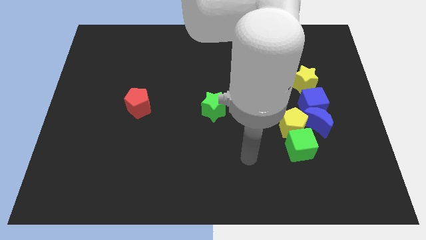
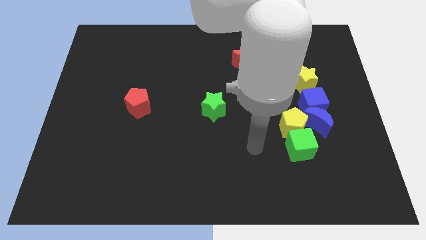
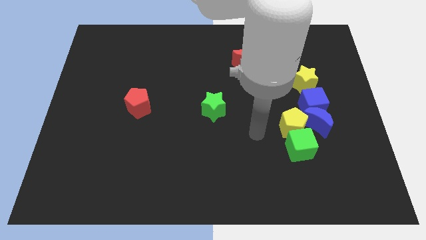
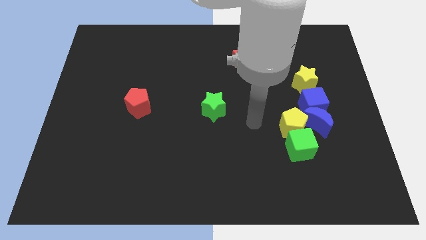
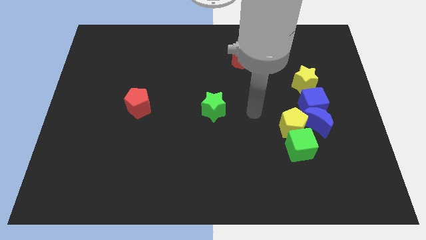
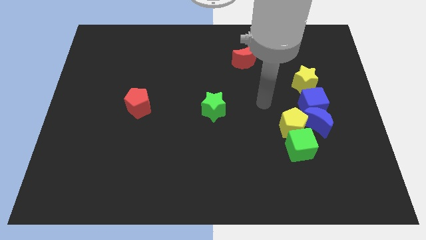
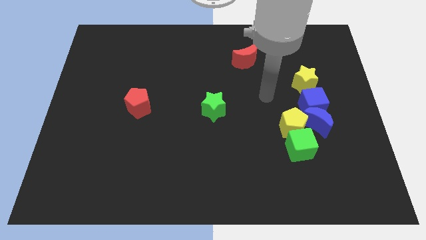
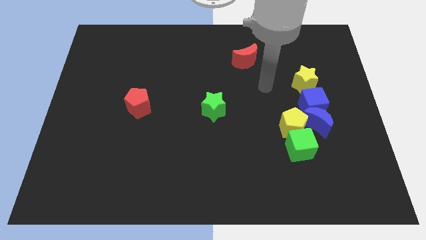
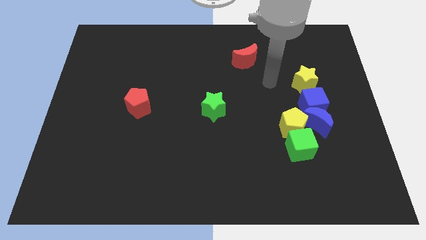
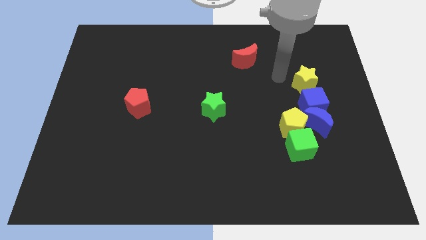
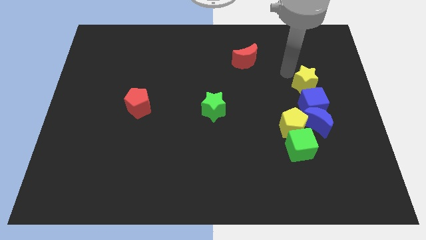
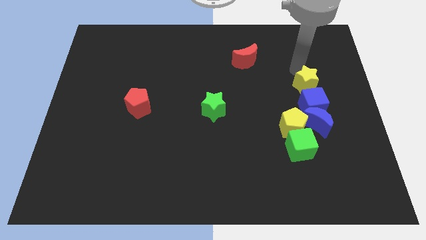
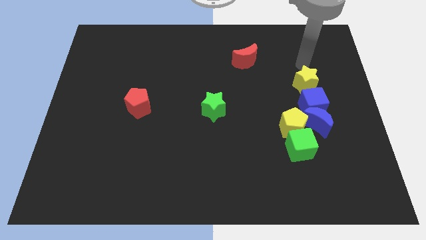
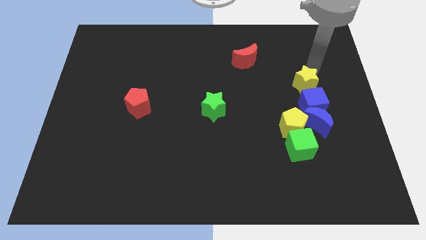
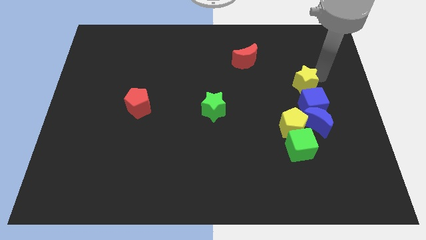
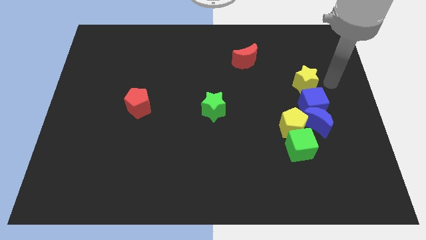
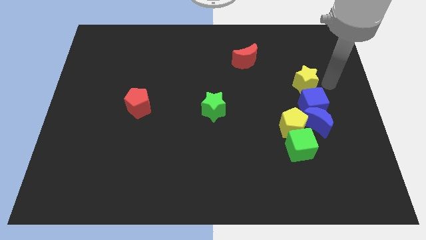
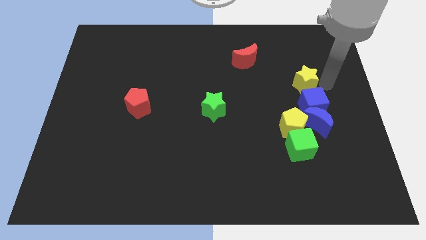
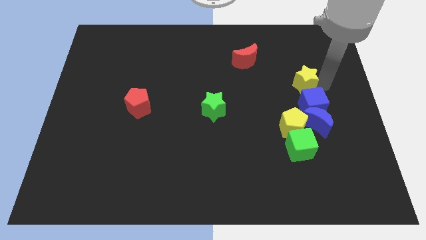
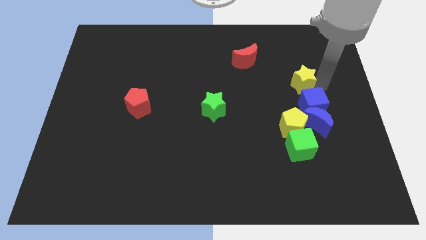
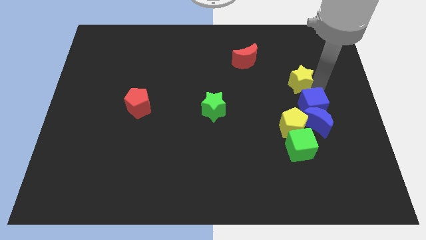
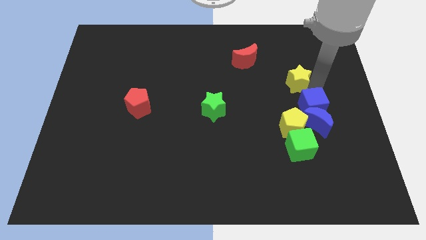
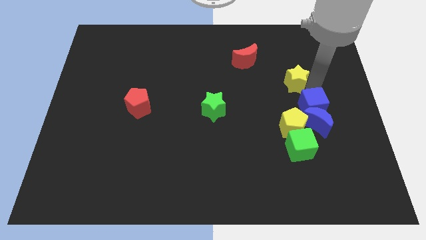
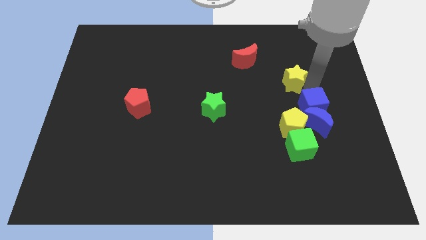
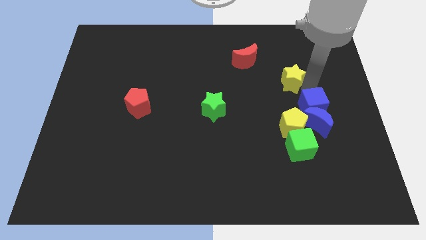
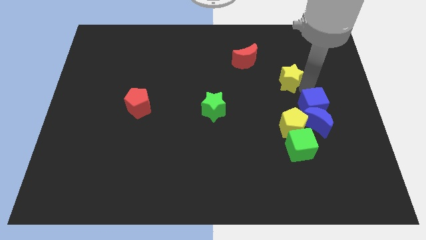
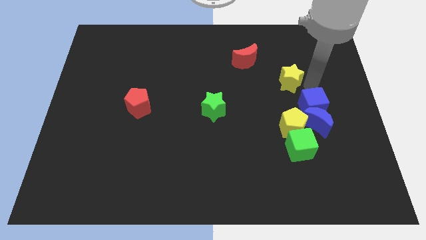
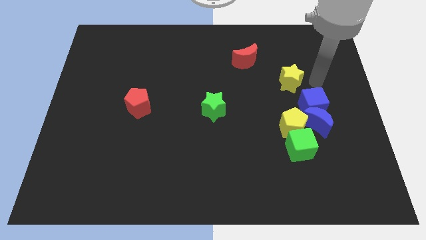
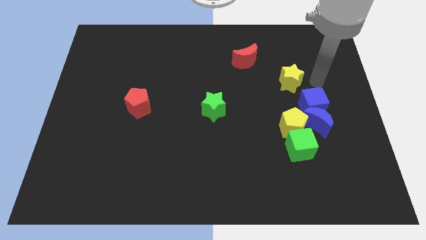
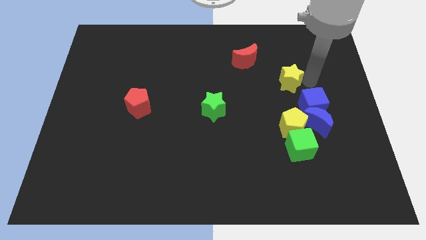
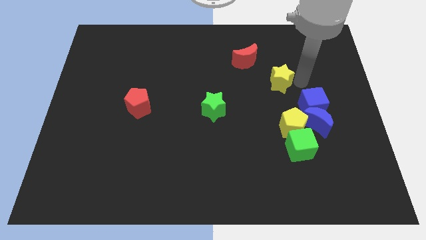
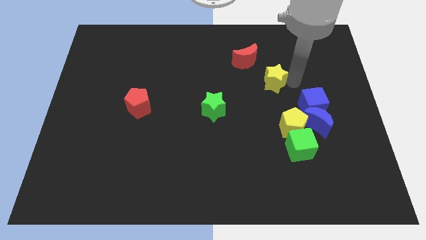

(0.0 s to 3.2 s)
slightly push the yellow star left

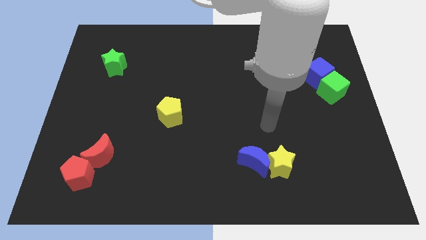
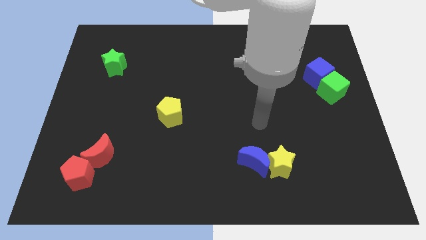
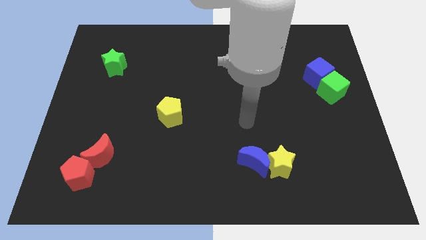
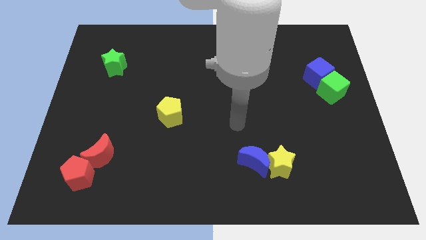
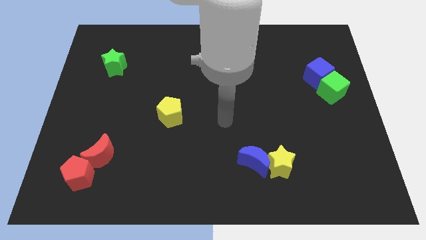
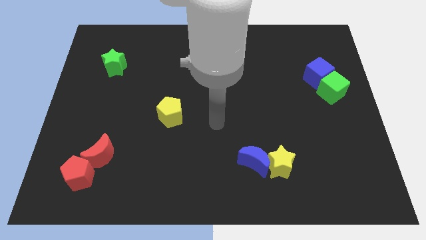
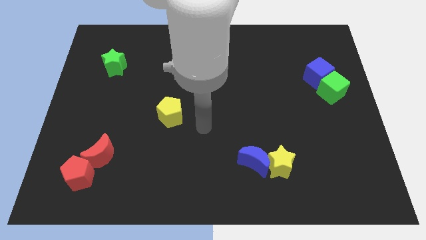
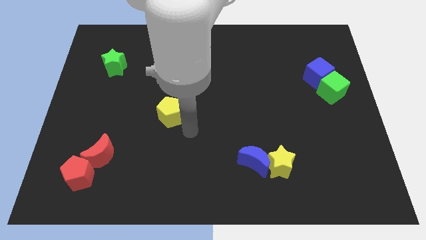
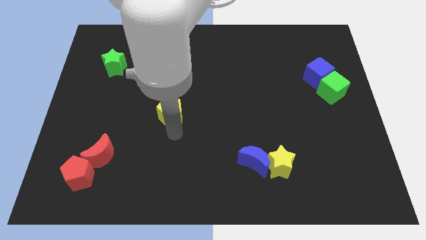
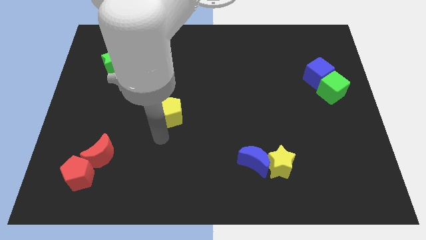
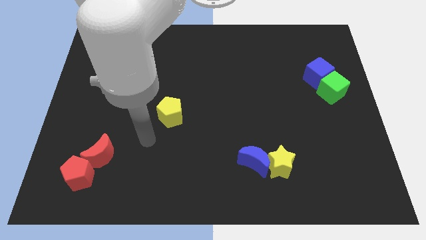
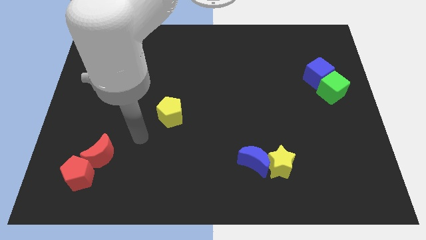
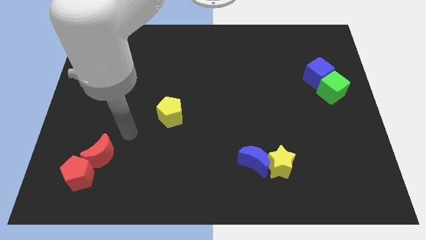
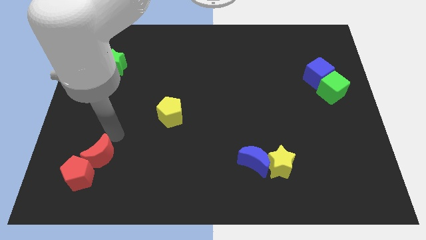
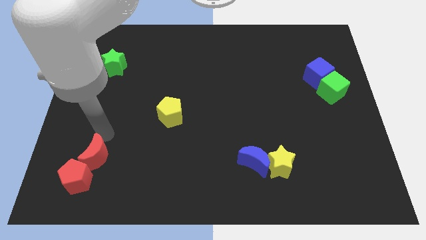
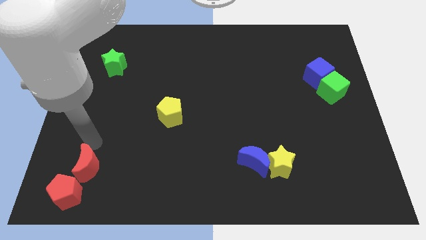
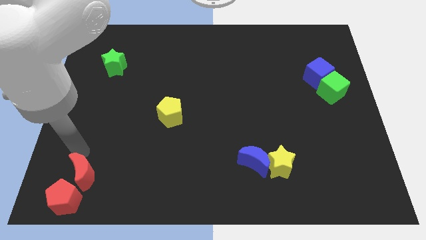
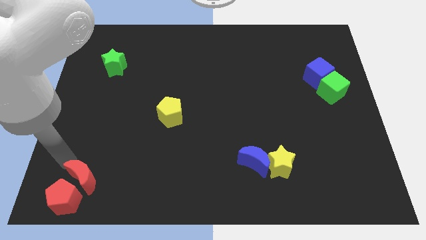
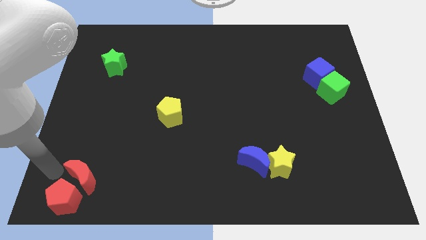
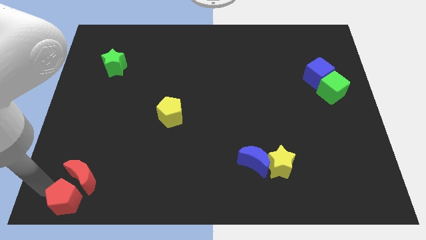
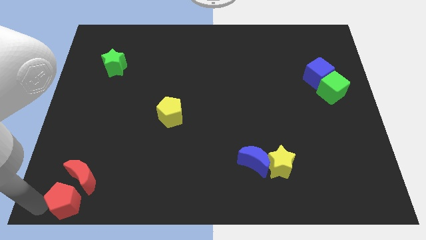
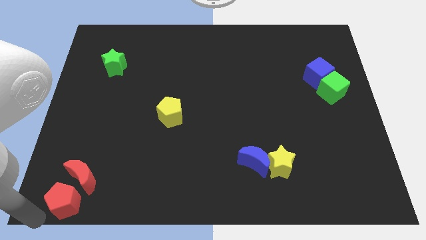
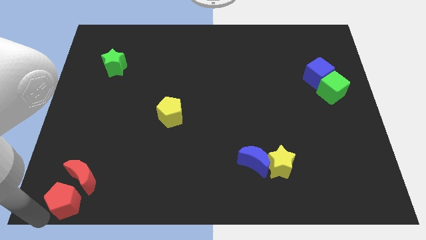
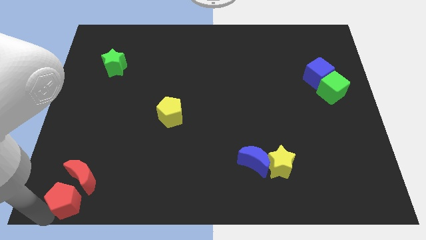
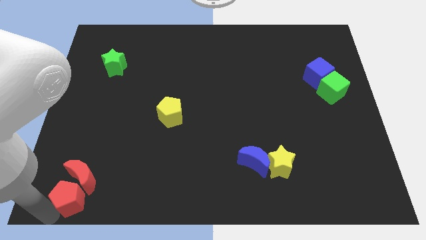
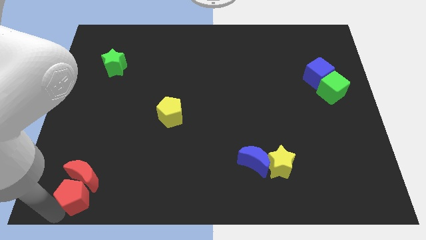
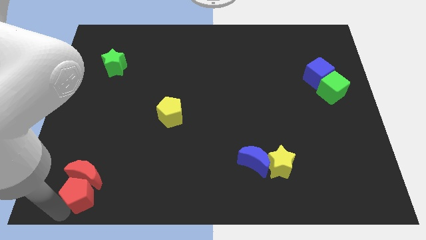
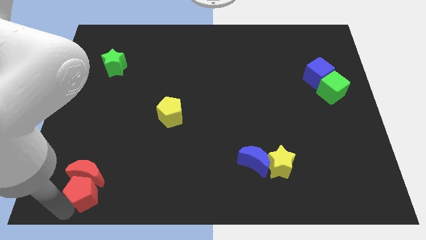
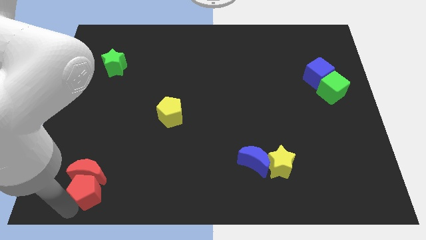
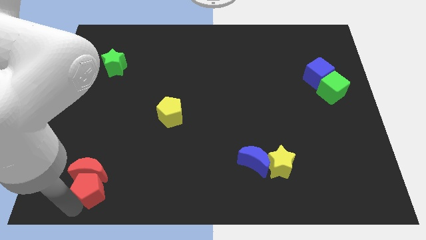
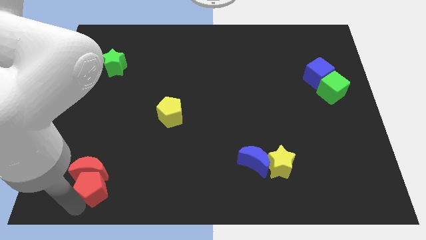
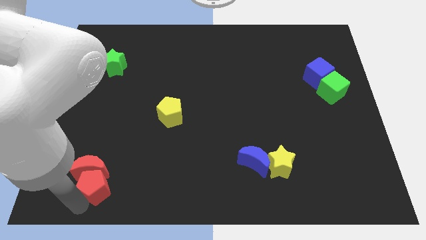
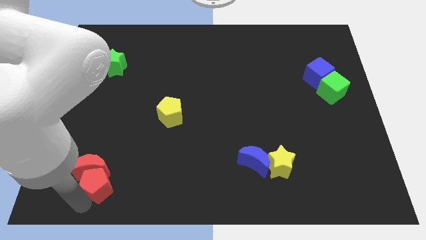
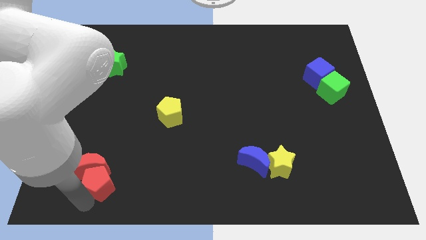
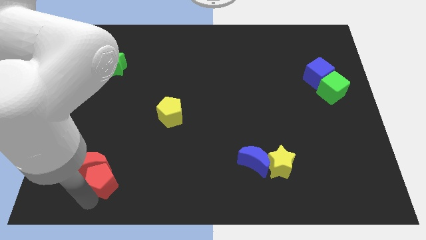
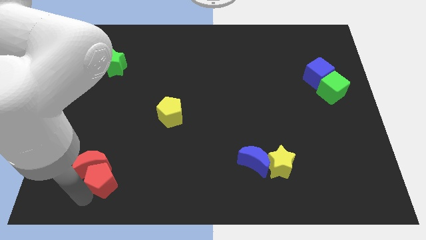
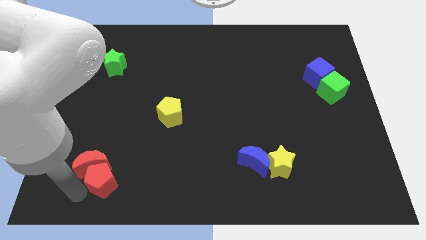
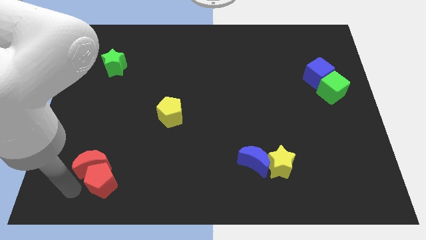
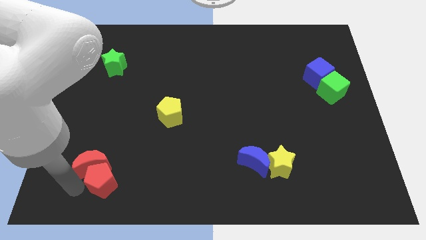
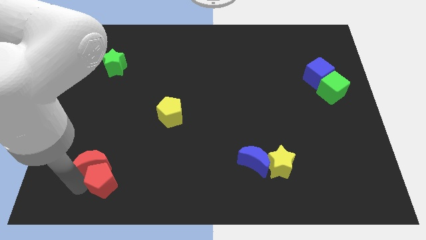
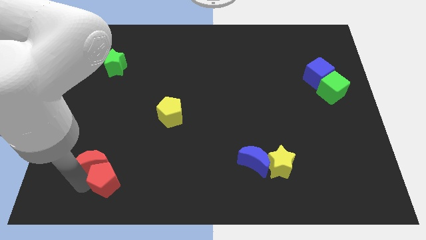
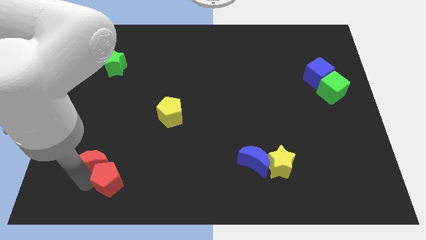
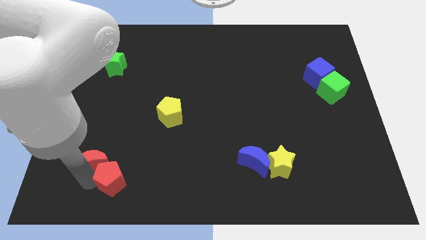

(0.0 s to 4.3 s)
push the red pentagon right slightly

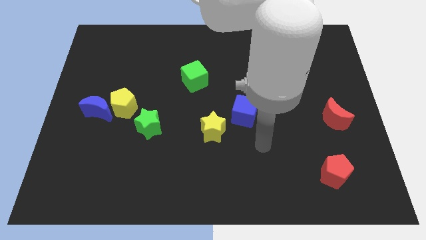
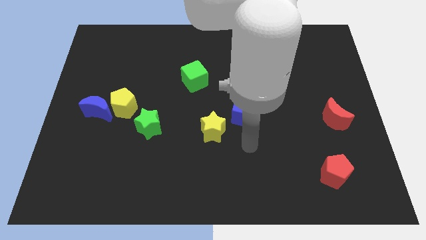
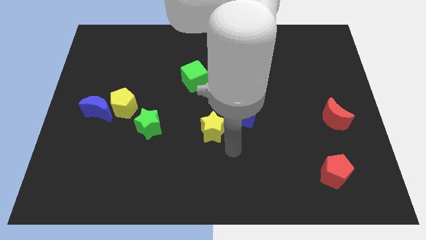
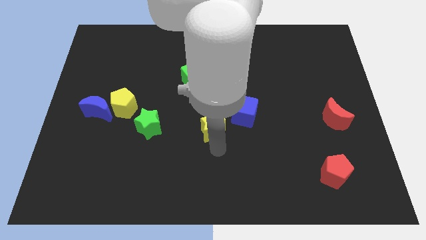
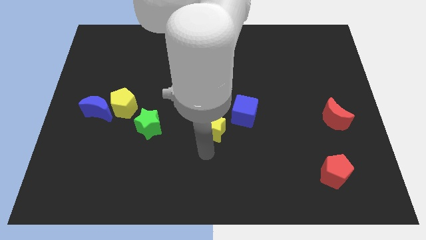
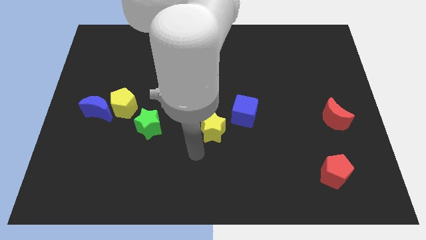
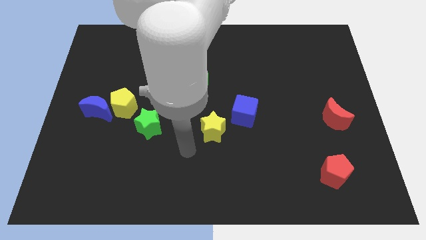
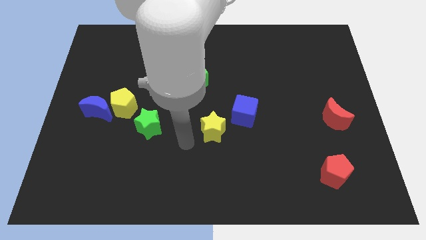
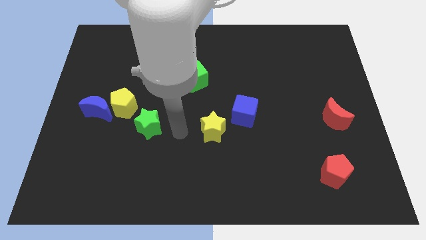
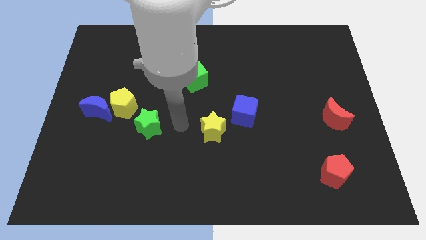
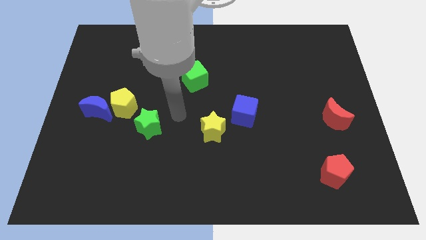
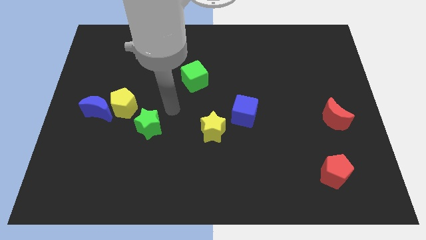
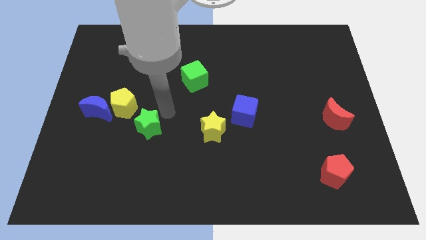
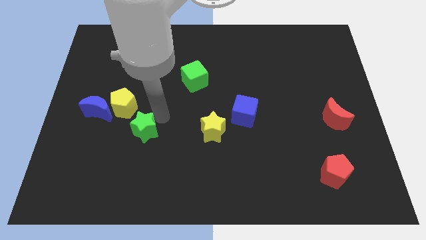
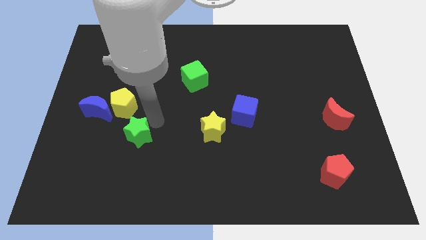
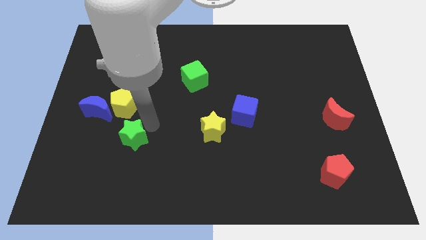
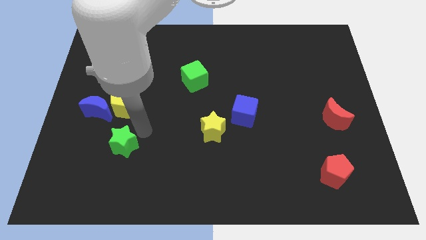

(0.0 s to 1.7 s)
move the green star a little bit down and left diagonally
